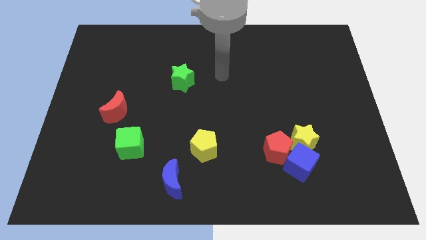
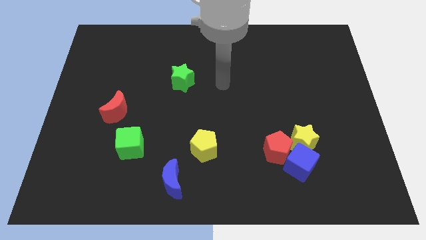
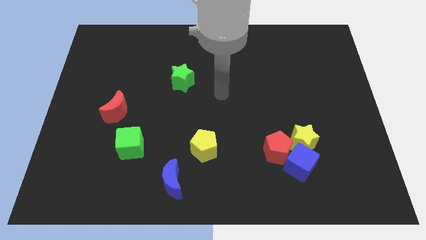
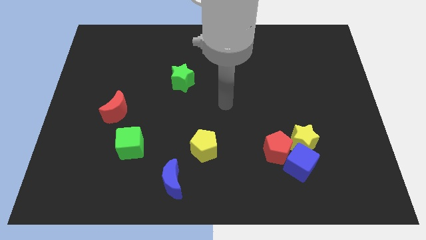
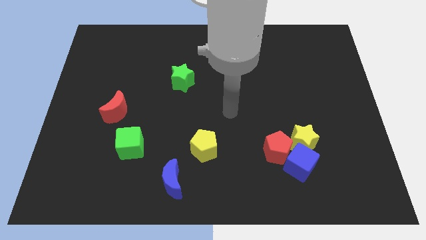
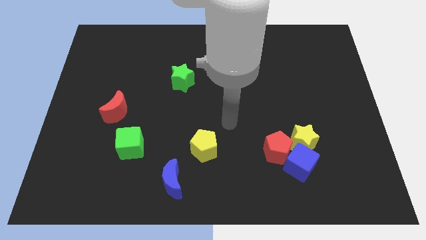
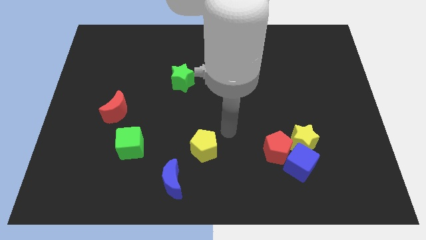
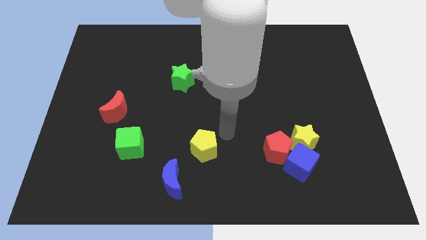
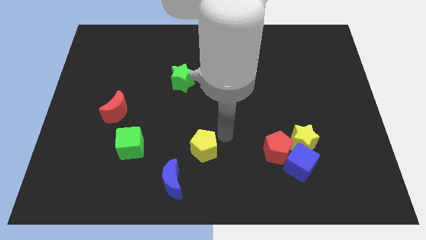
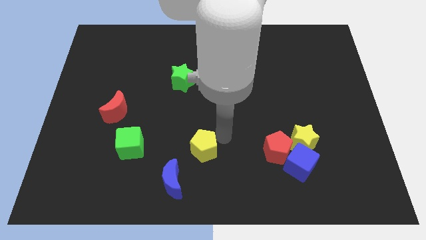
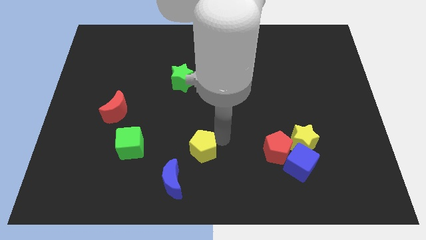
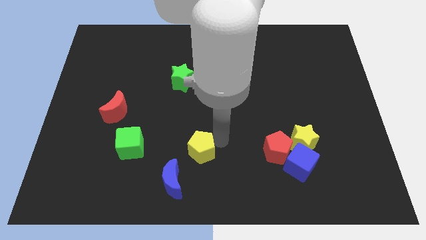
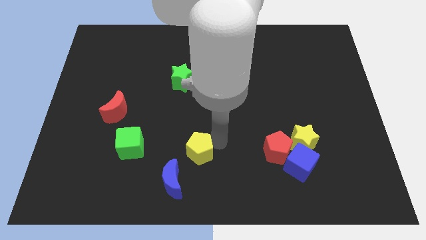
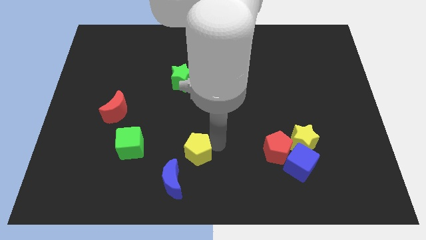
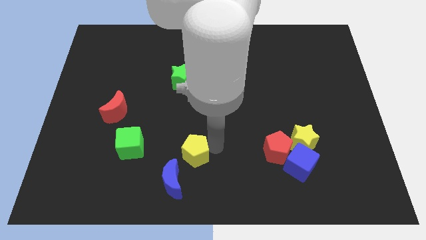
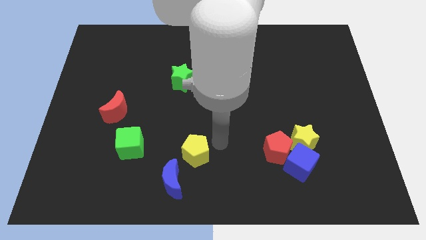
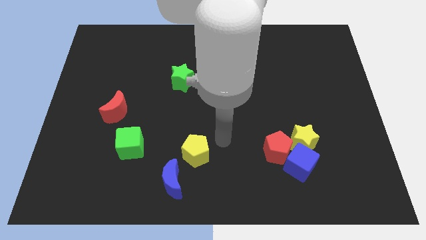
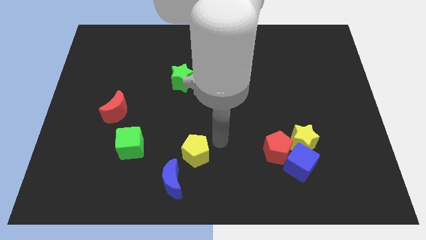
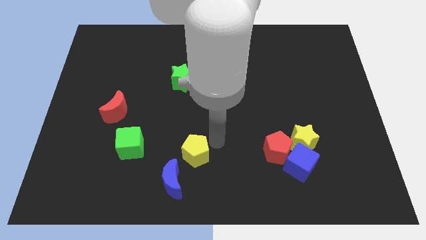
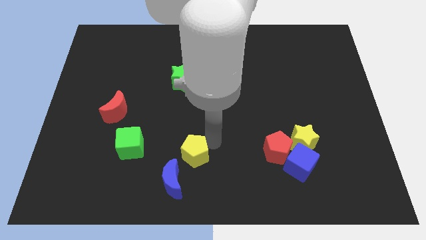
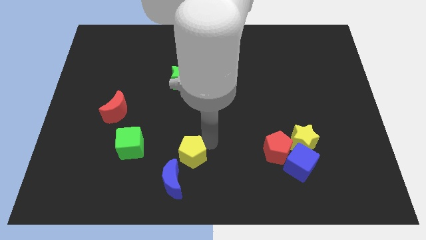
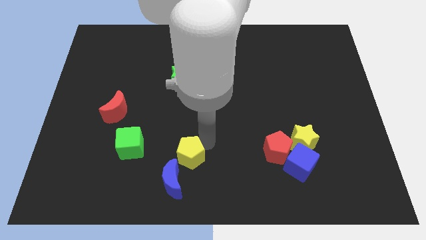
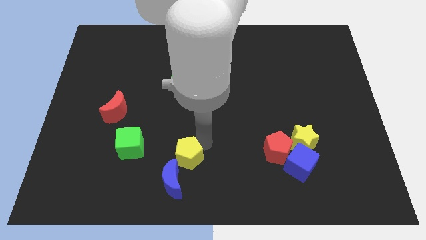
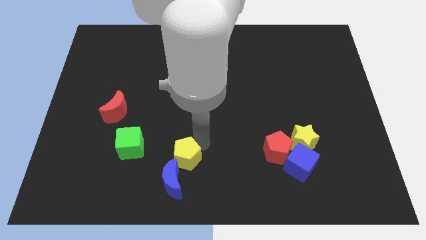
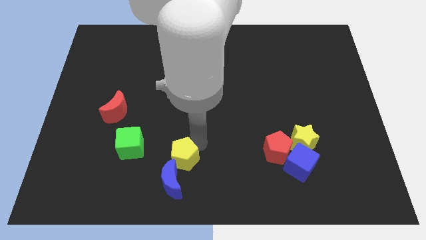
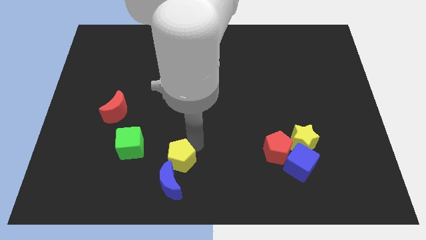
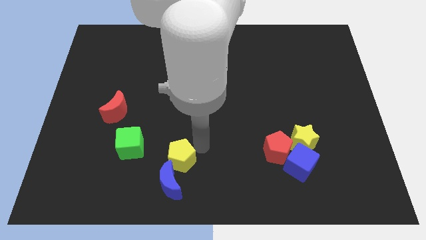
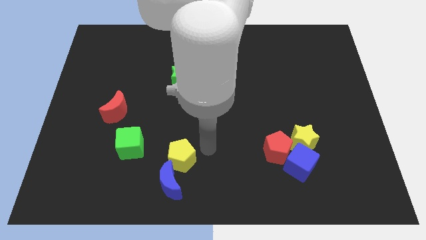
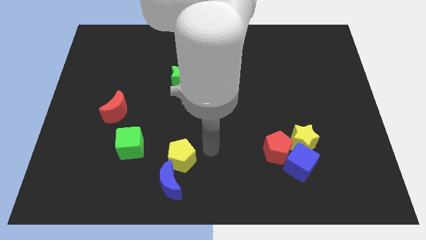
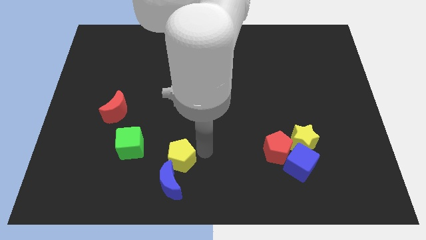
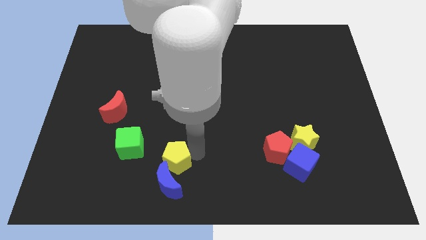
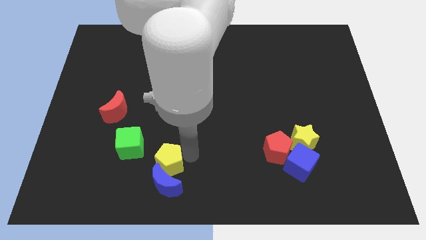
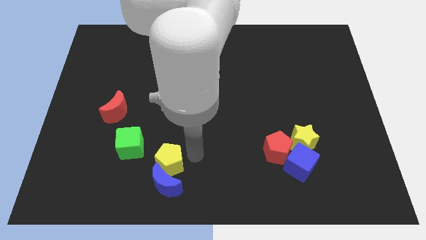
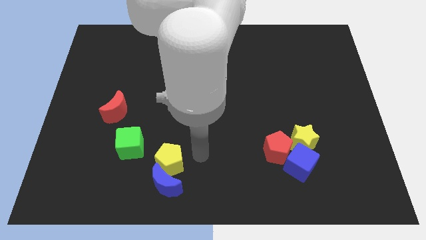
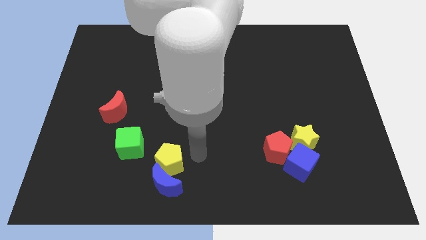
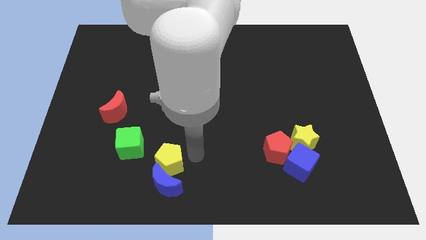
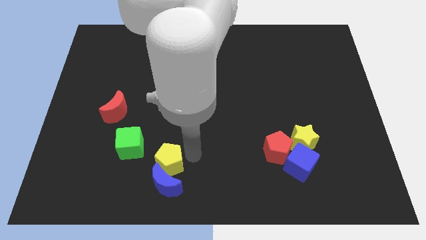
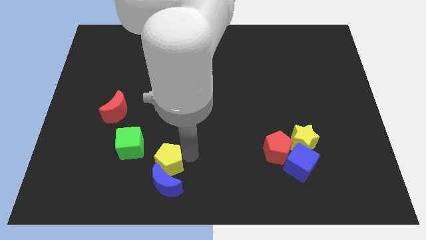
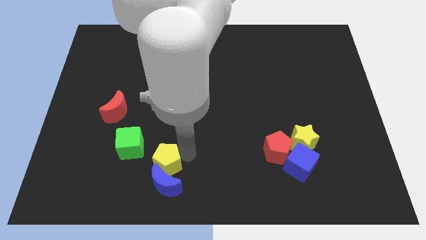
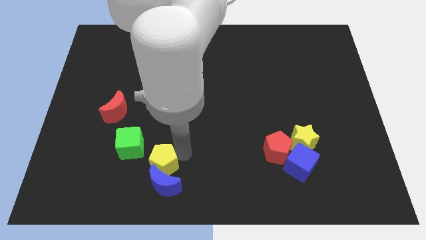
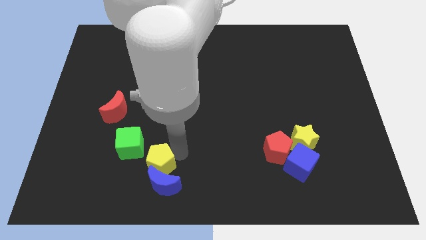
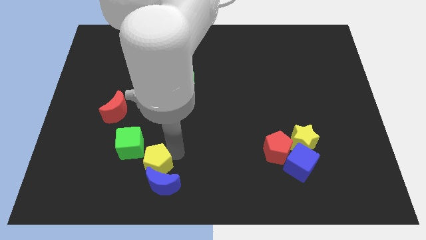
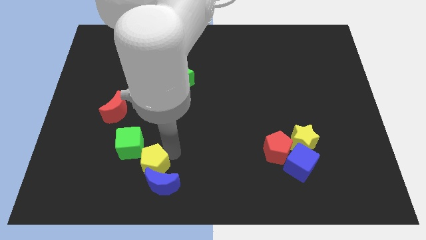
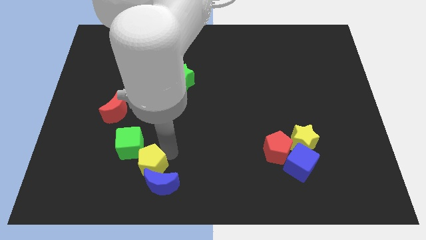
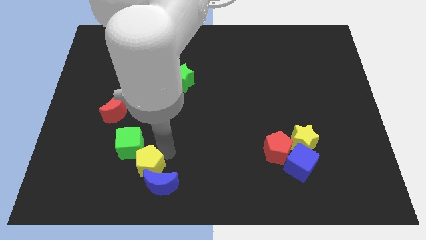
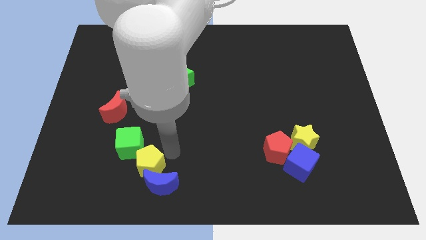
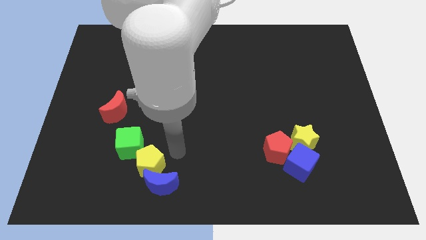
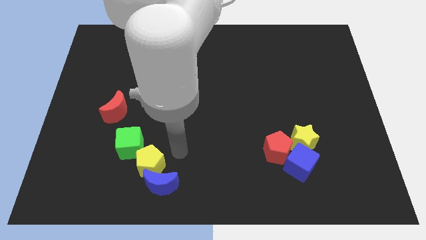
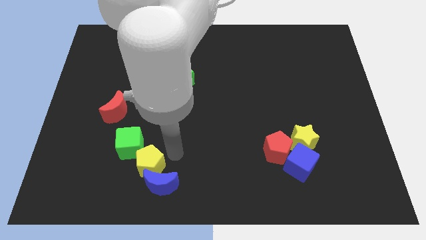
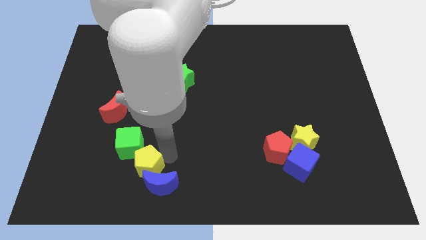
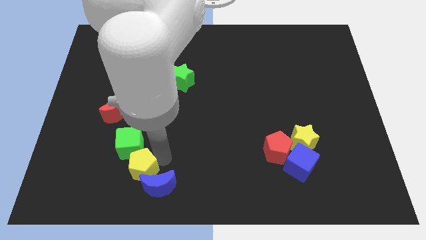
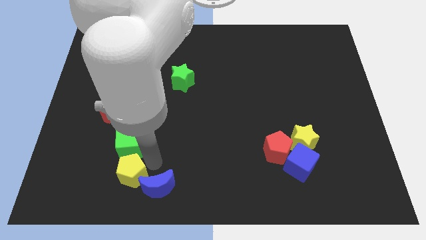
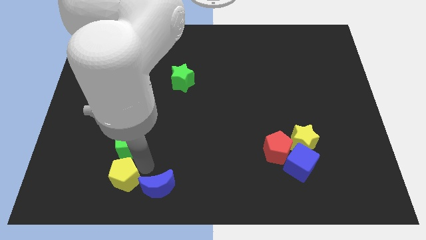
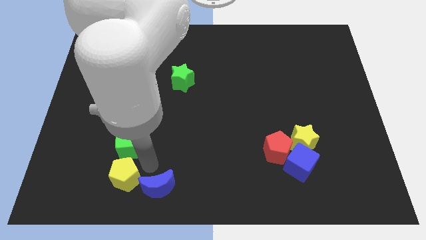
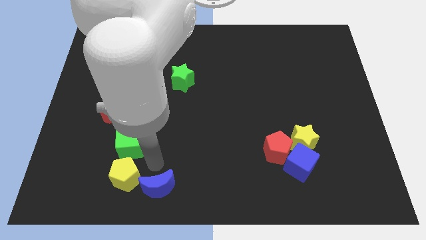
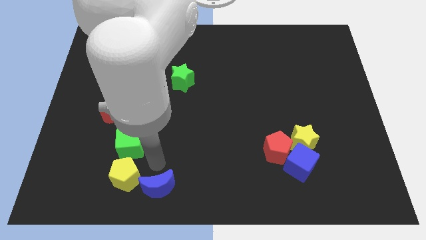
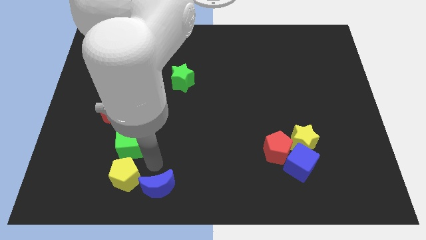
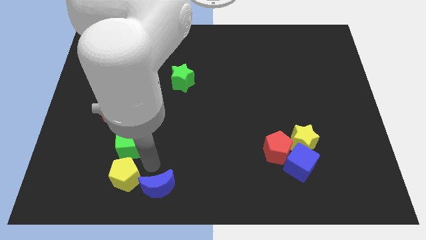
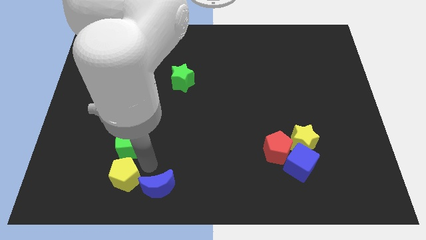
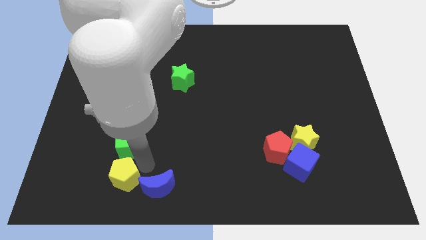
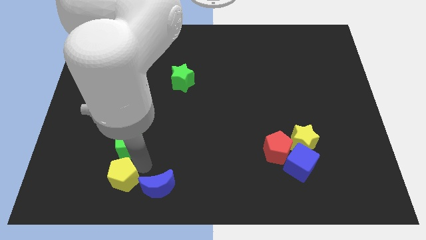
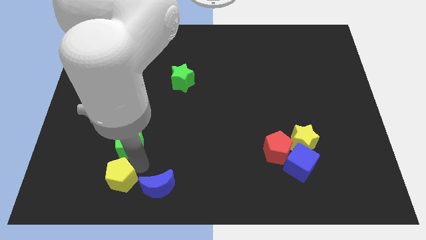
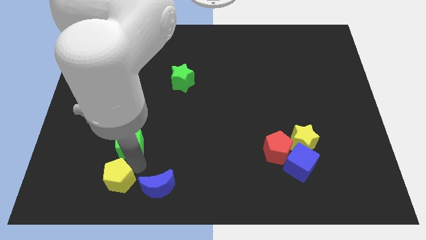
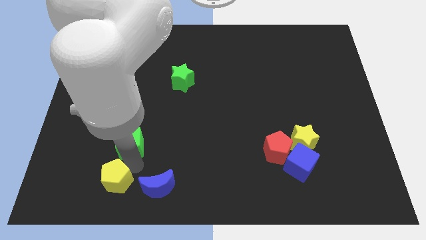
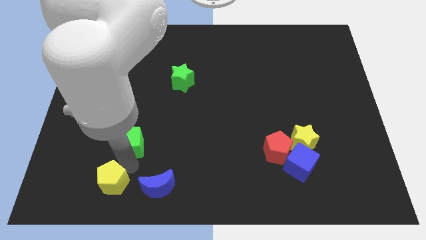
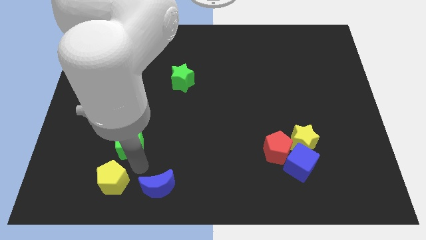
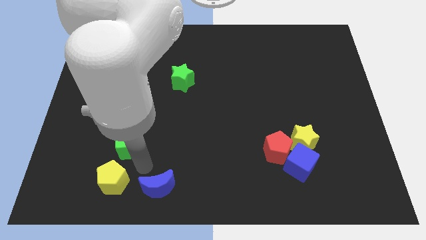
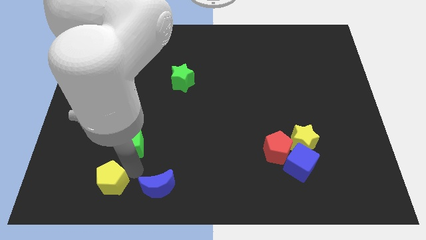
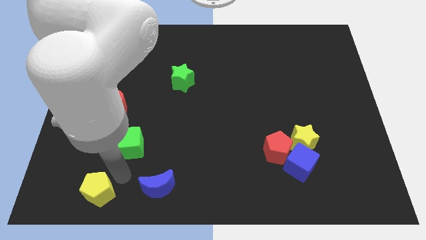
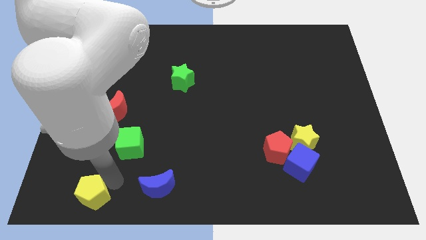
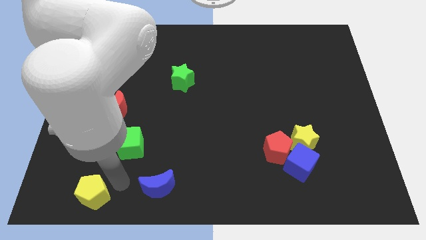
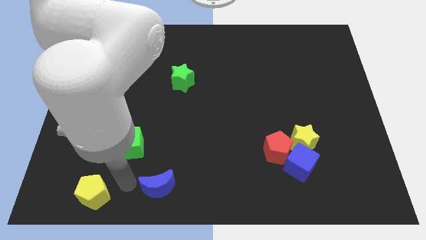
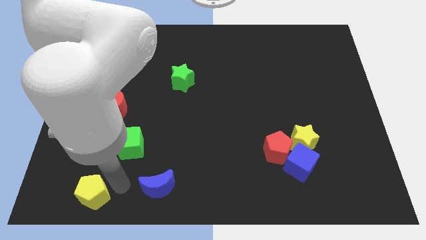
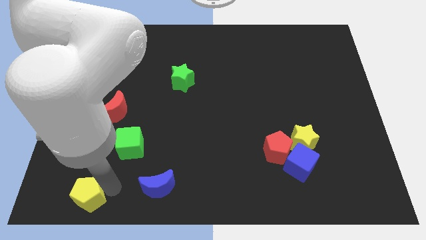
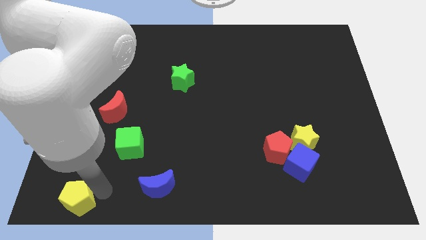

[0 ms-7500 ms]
push the yellow pentagon to the bottom left corner
